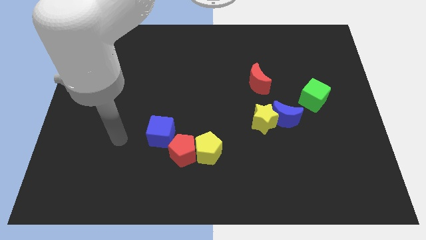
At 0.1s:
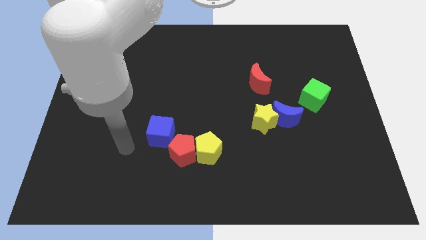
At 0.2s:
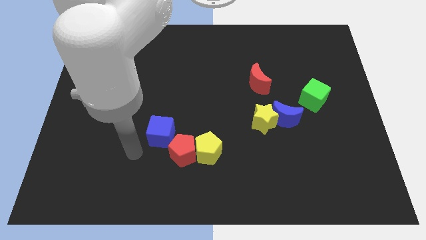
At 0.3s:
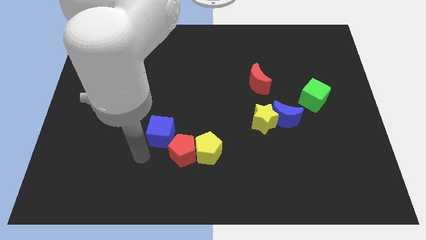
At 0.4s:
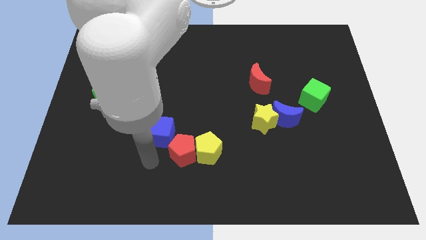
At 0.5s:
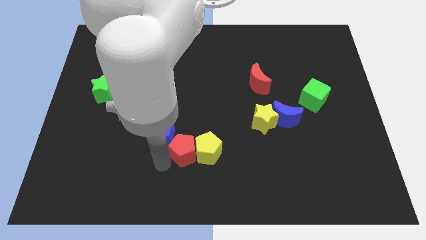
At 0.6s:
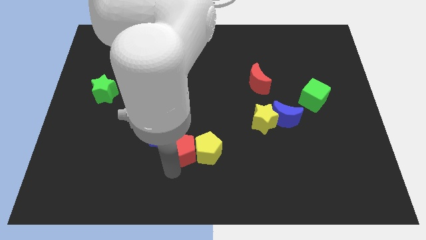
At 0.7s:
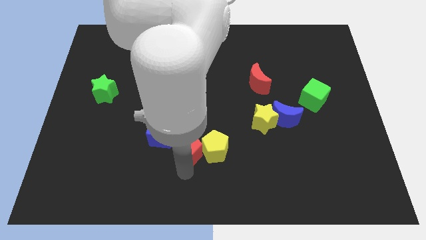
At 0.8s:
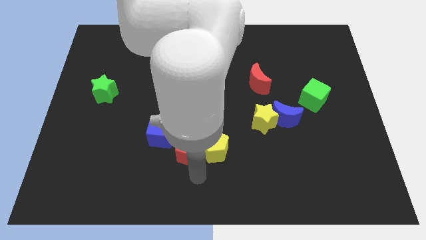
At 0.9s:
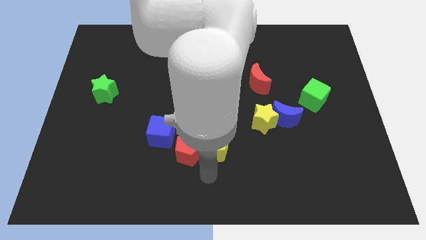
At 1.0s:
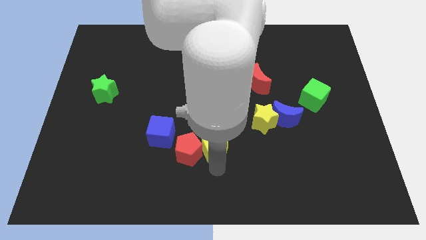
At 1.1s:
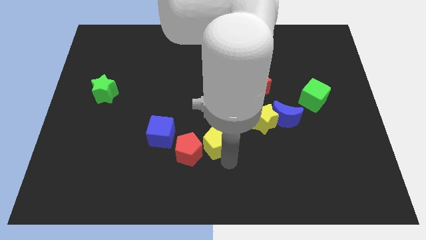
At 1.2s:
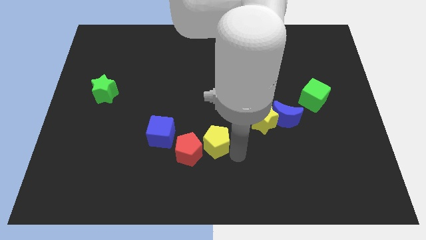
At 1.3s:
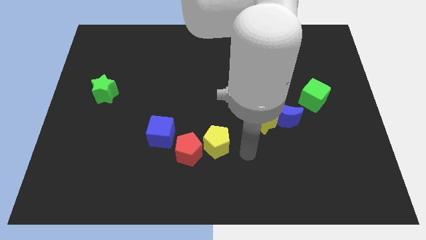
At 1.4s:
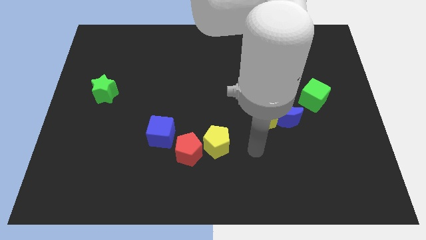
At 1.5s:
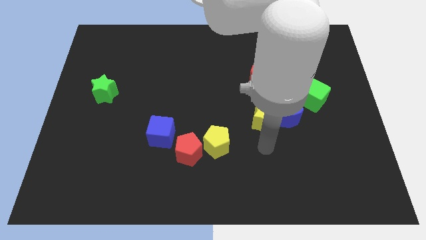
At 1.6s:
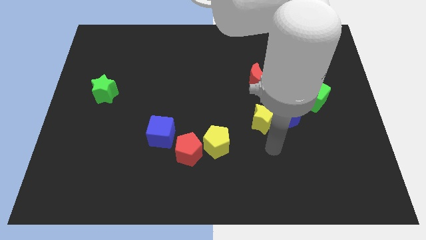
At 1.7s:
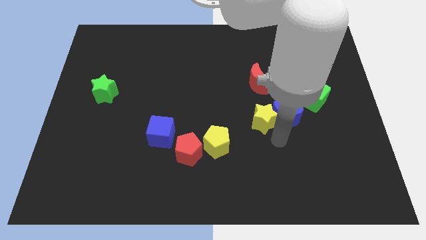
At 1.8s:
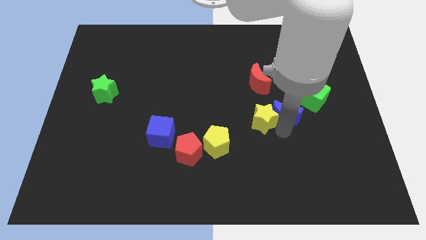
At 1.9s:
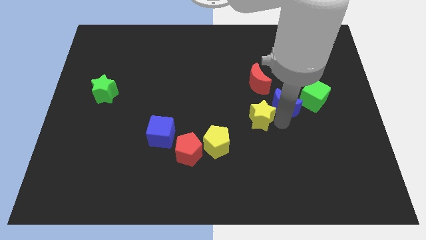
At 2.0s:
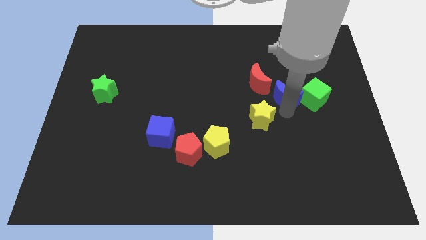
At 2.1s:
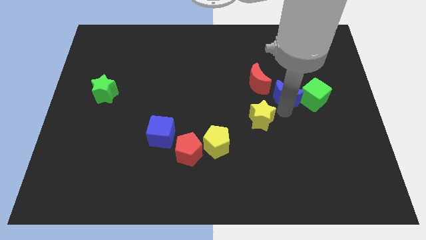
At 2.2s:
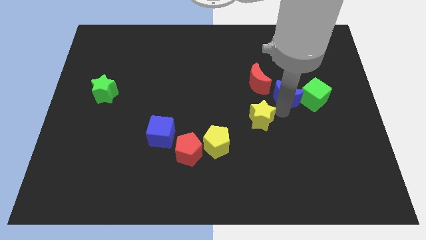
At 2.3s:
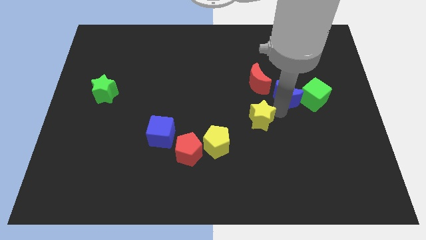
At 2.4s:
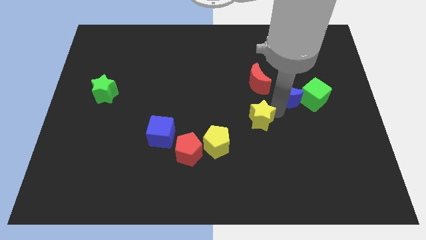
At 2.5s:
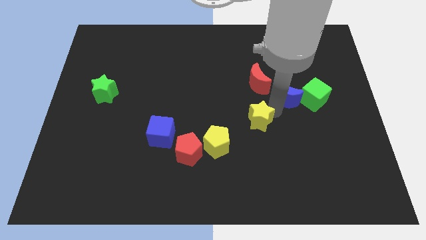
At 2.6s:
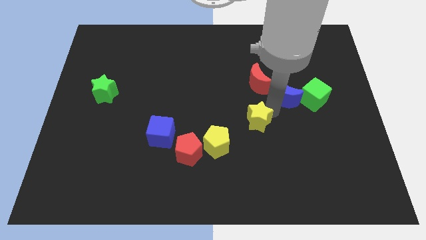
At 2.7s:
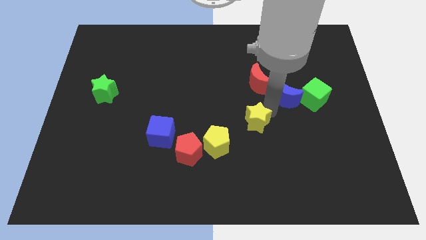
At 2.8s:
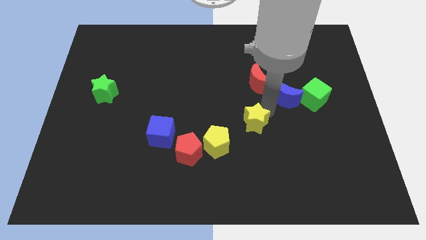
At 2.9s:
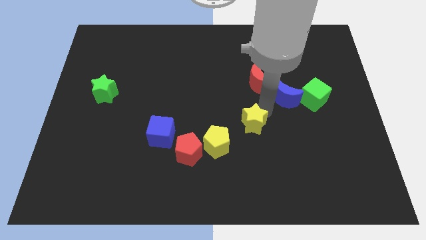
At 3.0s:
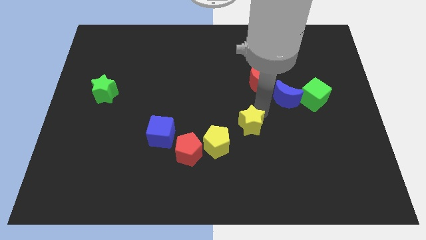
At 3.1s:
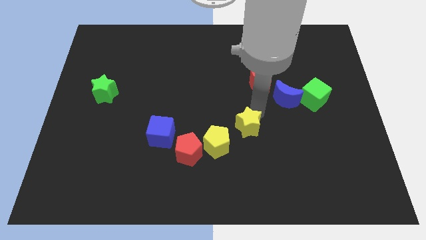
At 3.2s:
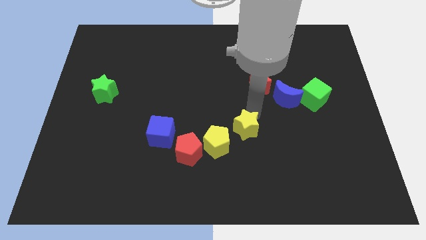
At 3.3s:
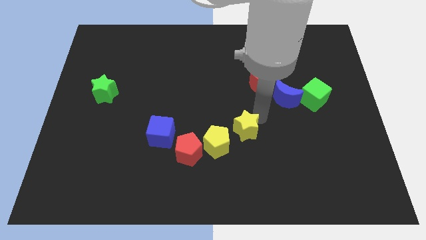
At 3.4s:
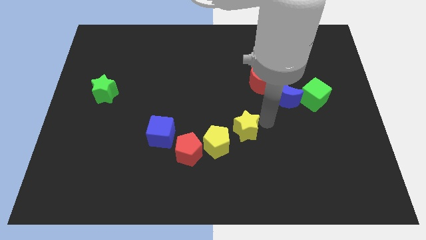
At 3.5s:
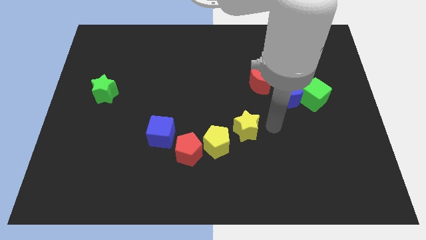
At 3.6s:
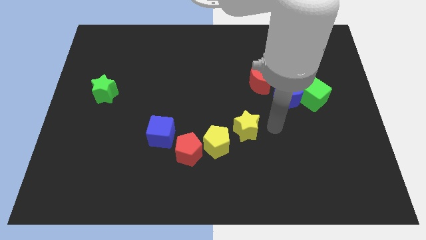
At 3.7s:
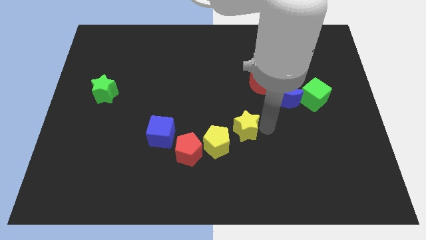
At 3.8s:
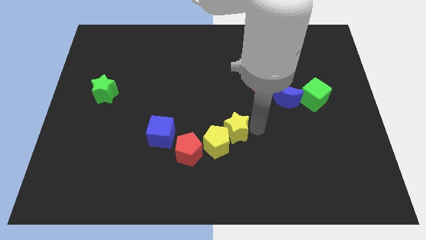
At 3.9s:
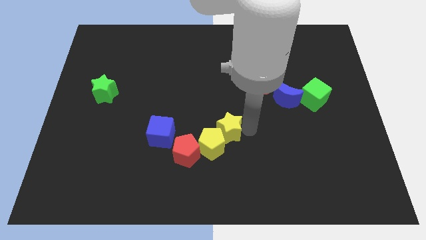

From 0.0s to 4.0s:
push the yellow star left somewhat

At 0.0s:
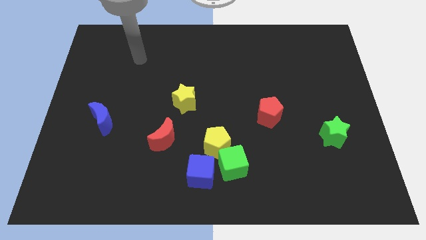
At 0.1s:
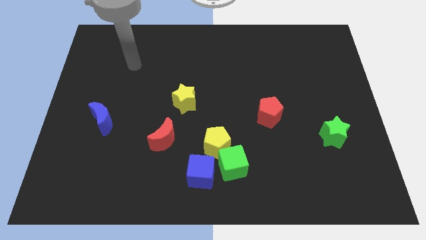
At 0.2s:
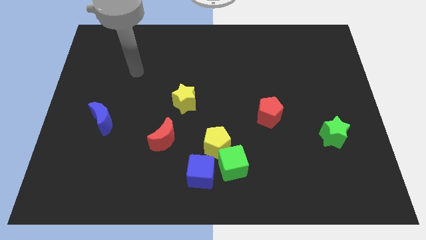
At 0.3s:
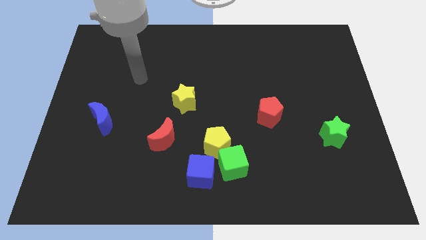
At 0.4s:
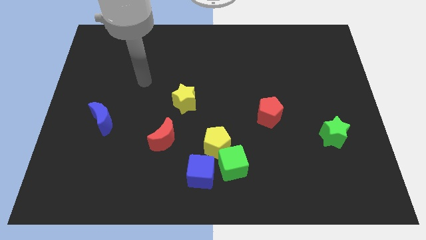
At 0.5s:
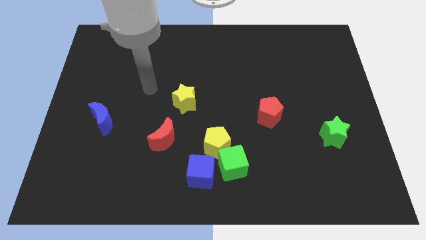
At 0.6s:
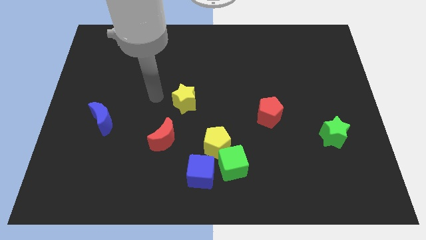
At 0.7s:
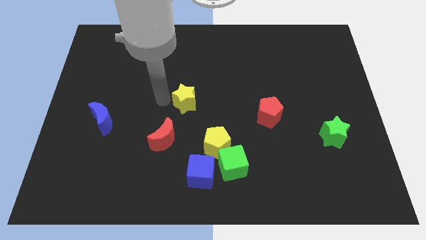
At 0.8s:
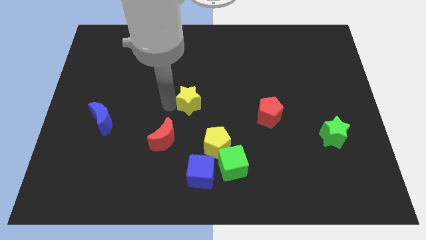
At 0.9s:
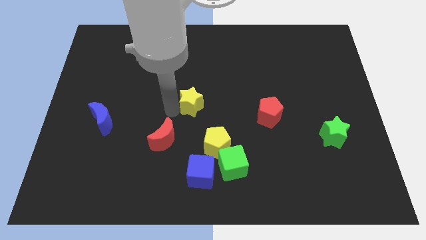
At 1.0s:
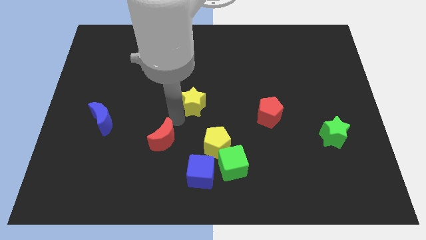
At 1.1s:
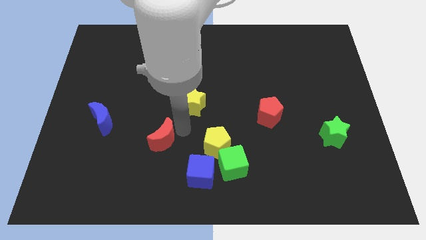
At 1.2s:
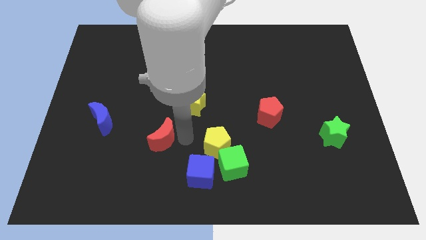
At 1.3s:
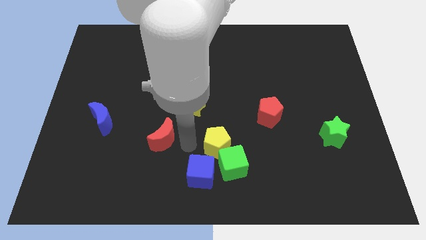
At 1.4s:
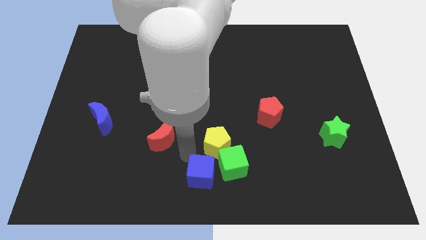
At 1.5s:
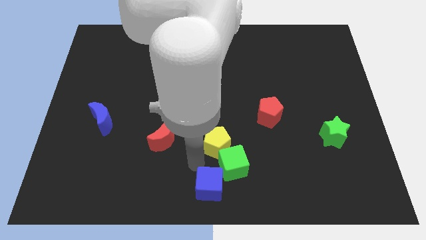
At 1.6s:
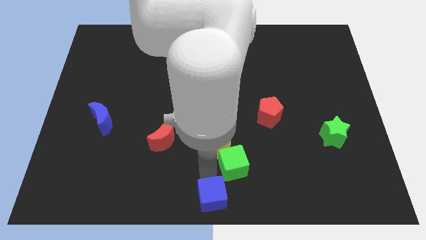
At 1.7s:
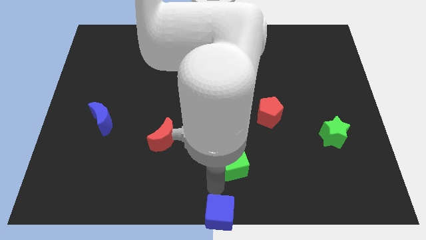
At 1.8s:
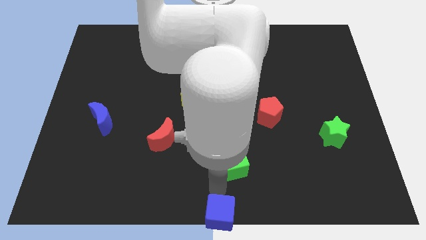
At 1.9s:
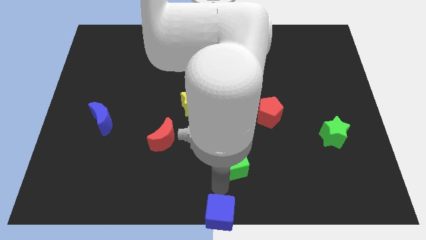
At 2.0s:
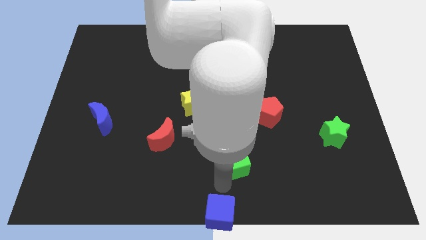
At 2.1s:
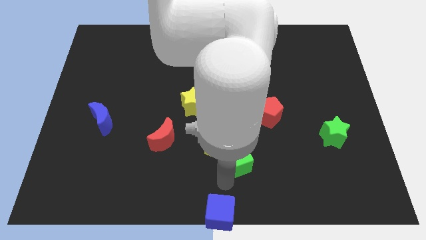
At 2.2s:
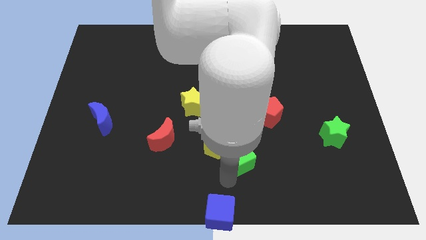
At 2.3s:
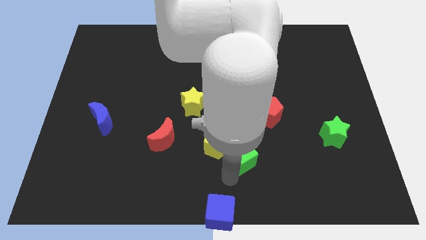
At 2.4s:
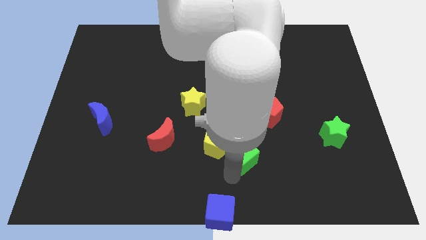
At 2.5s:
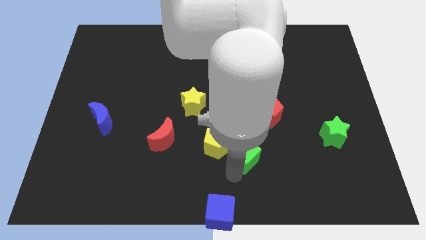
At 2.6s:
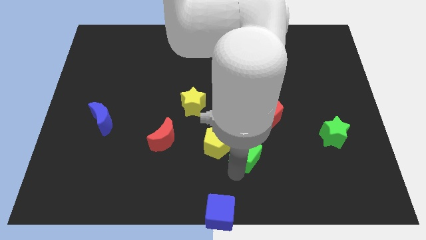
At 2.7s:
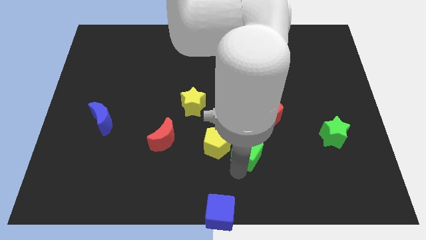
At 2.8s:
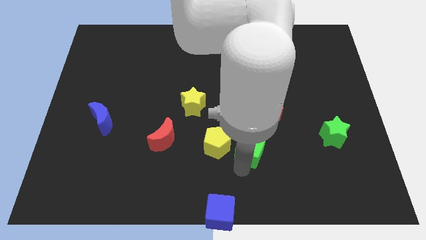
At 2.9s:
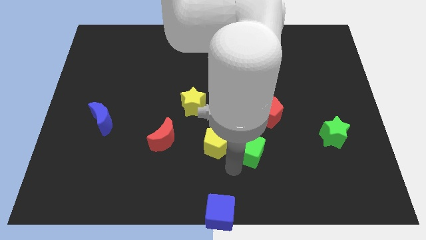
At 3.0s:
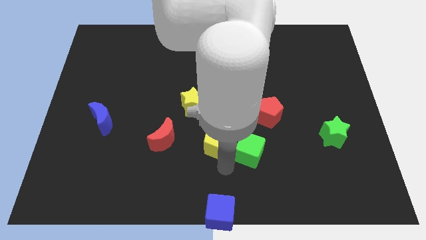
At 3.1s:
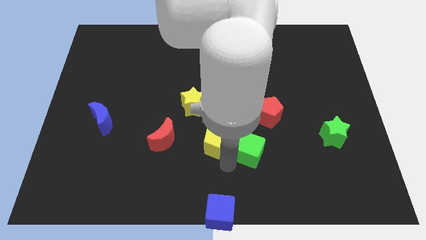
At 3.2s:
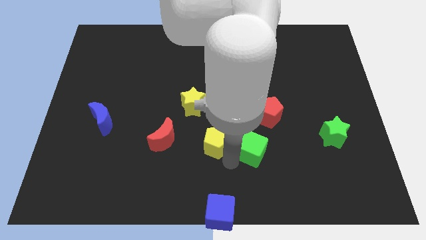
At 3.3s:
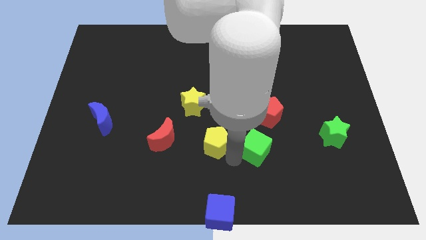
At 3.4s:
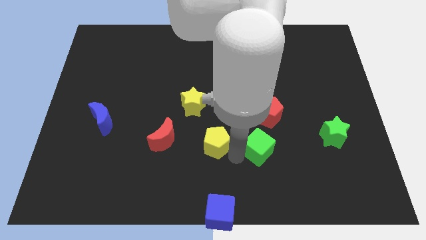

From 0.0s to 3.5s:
slide the green cube upwards and right diagonally slightly

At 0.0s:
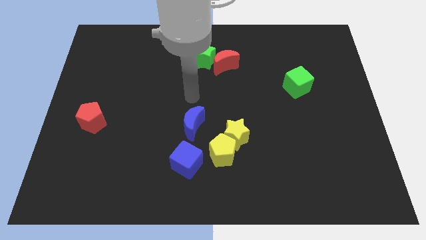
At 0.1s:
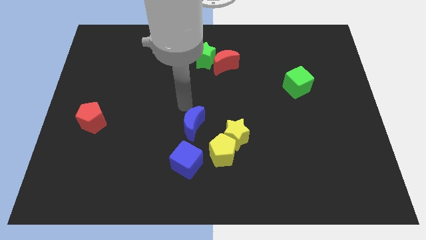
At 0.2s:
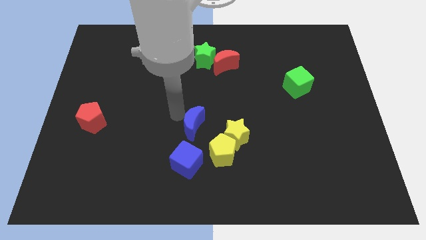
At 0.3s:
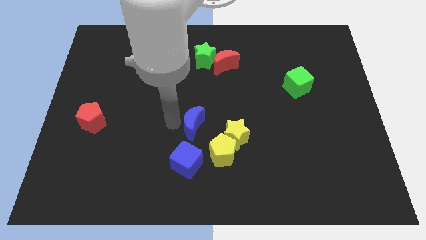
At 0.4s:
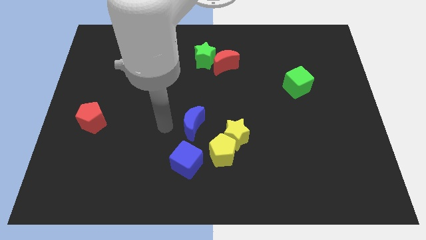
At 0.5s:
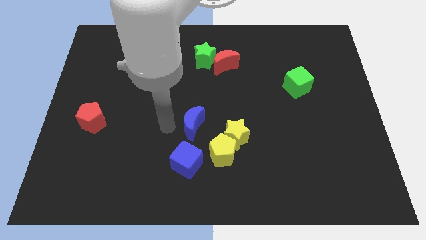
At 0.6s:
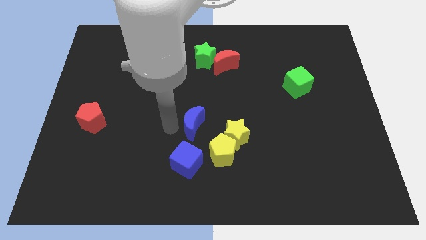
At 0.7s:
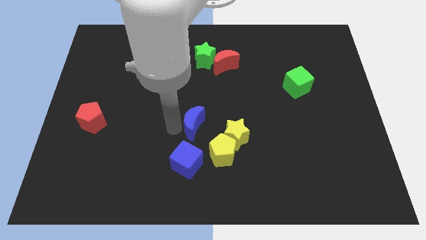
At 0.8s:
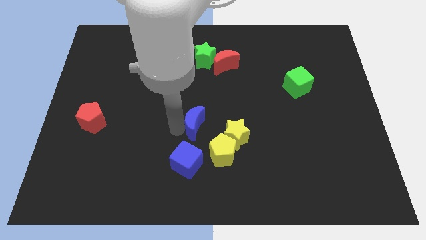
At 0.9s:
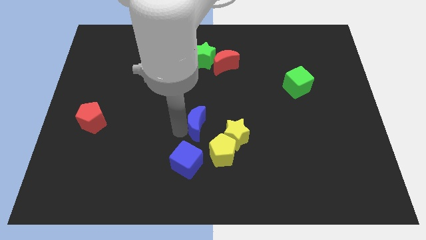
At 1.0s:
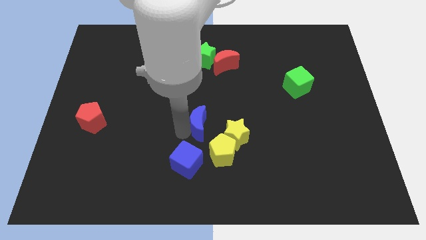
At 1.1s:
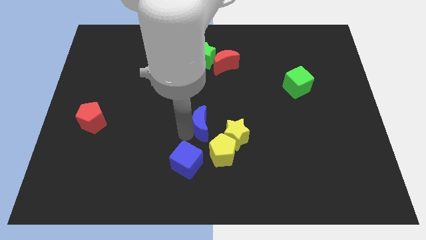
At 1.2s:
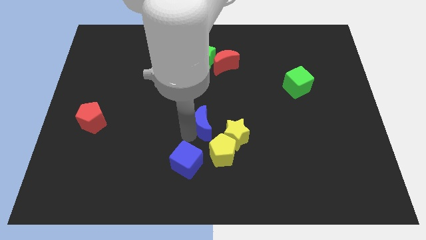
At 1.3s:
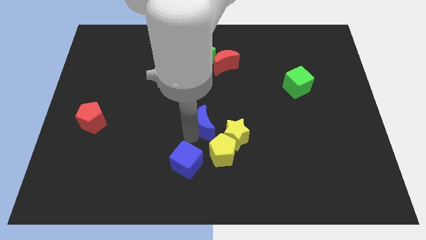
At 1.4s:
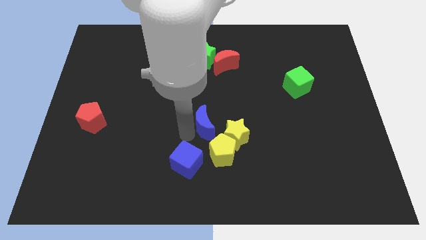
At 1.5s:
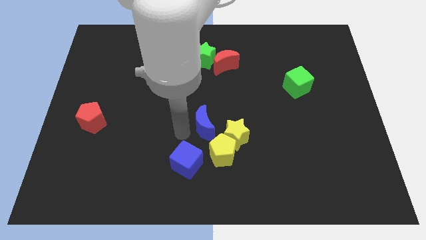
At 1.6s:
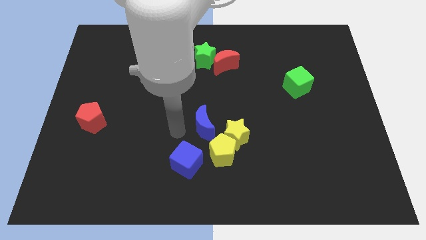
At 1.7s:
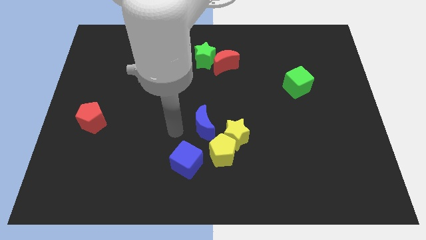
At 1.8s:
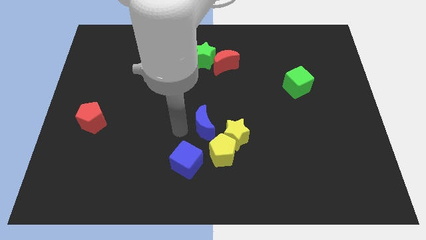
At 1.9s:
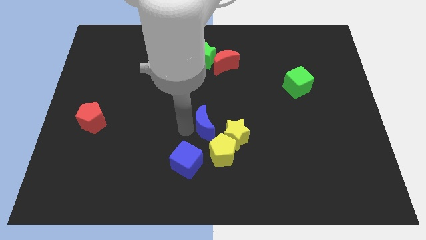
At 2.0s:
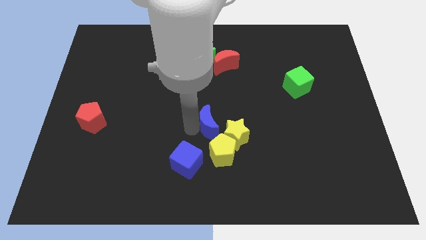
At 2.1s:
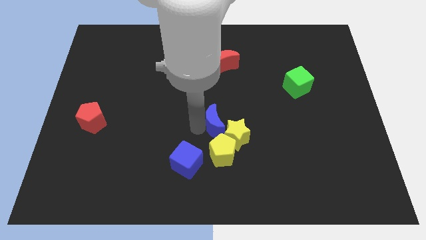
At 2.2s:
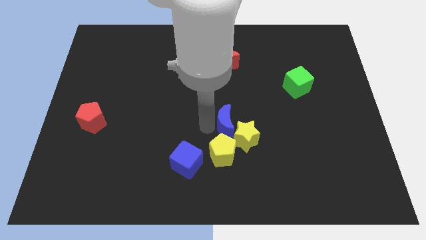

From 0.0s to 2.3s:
slightly slide the blue moon to the right
